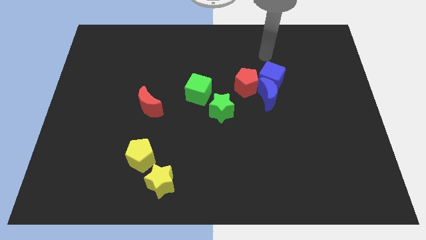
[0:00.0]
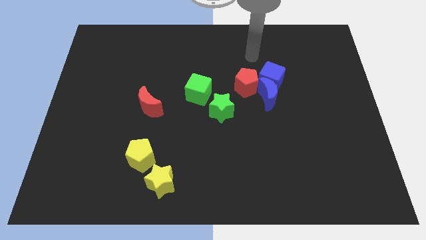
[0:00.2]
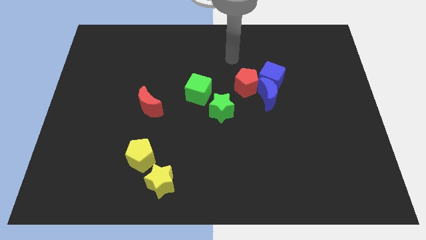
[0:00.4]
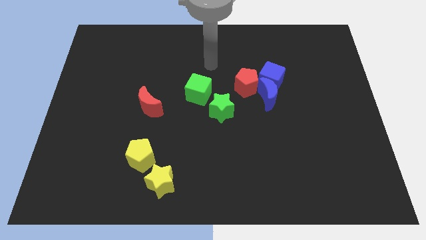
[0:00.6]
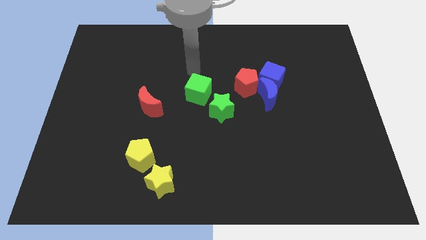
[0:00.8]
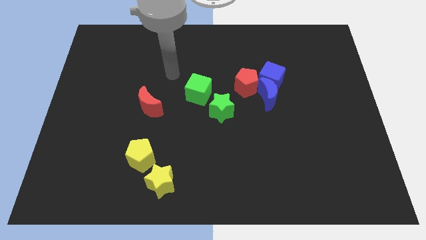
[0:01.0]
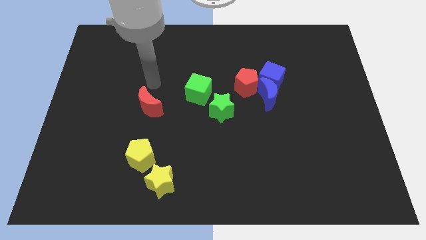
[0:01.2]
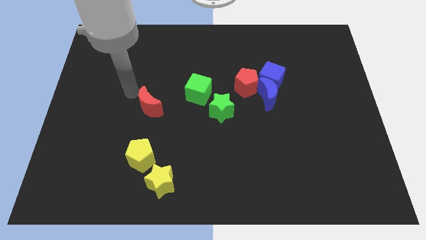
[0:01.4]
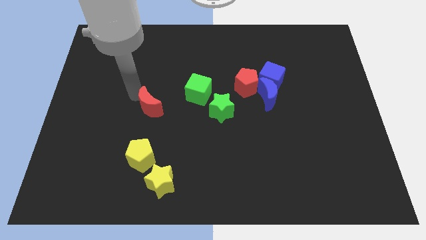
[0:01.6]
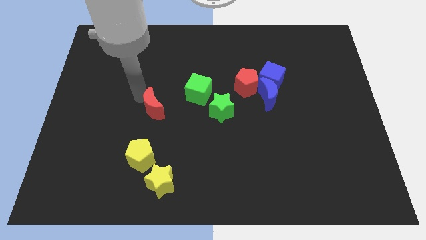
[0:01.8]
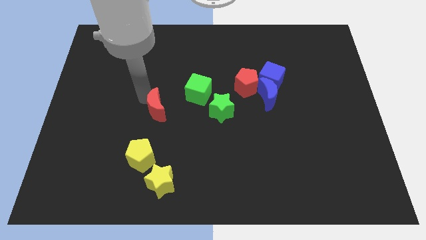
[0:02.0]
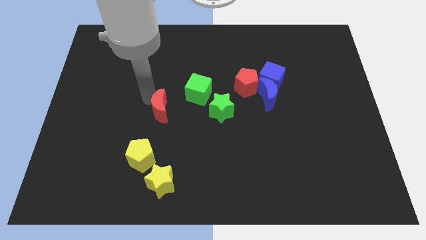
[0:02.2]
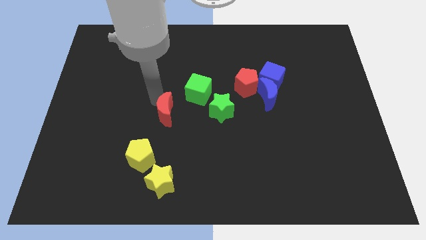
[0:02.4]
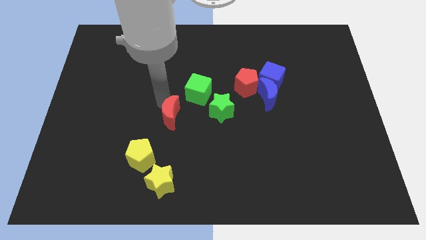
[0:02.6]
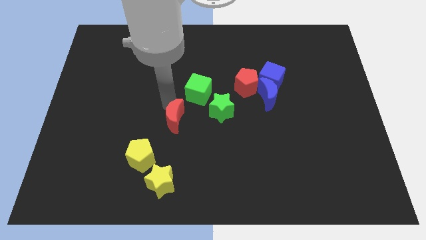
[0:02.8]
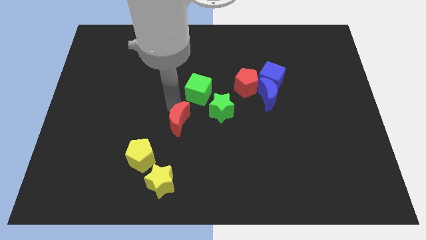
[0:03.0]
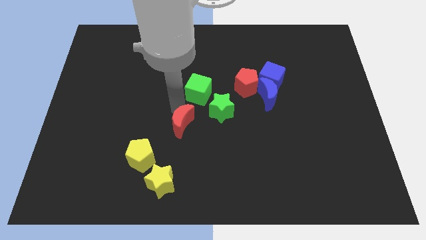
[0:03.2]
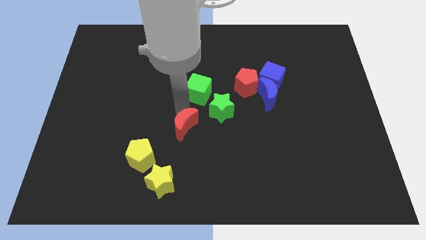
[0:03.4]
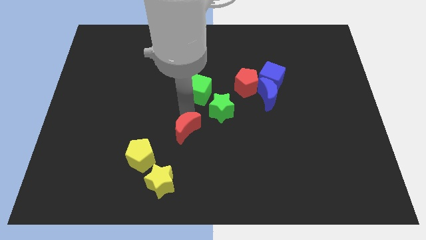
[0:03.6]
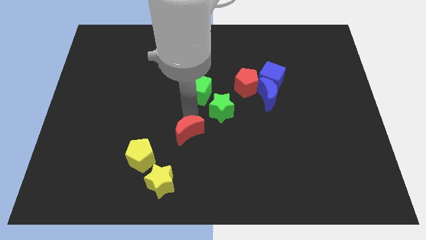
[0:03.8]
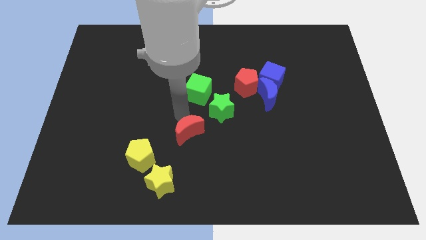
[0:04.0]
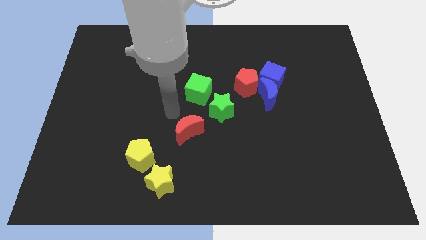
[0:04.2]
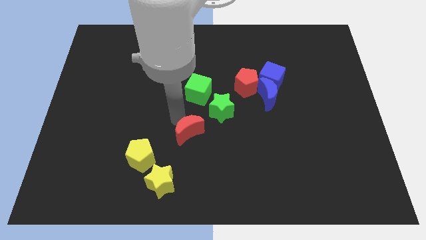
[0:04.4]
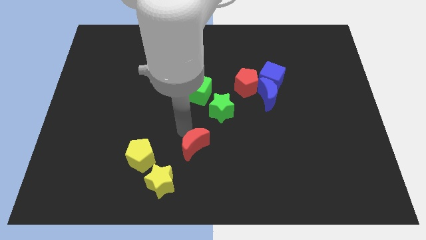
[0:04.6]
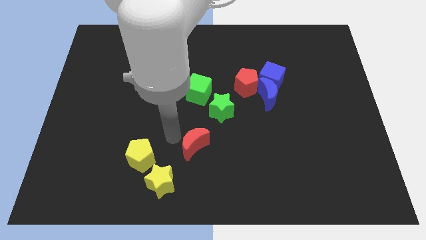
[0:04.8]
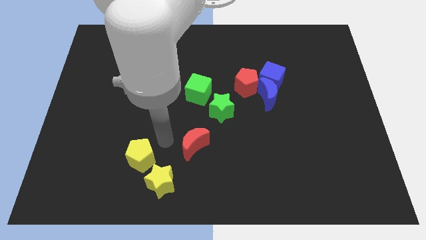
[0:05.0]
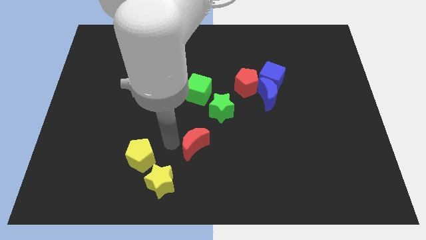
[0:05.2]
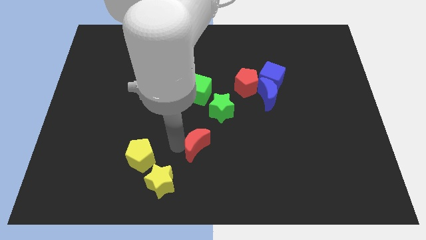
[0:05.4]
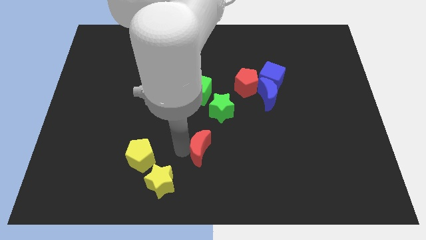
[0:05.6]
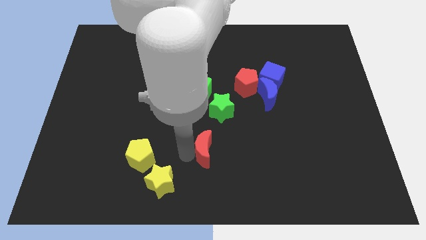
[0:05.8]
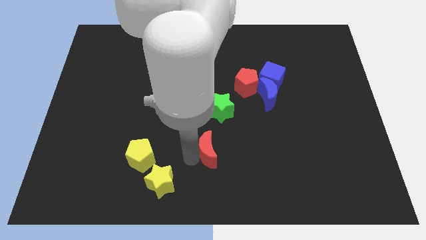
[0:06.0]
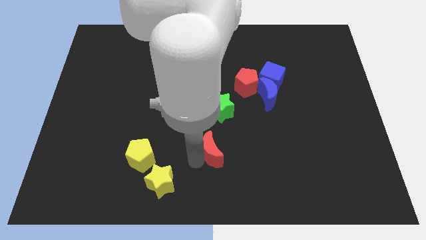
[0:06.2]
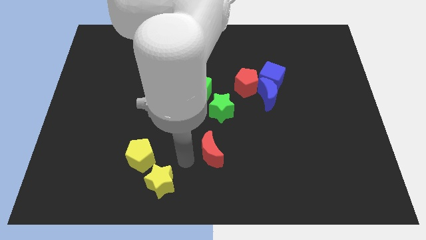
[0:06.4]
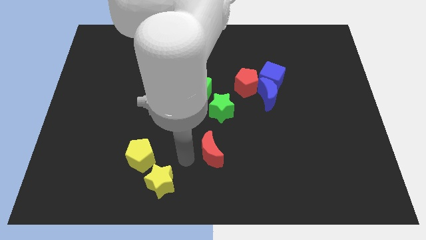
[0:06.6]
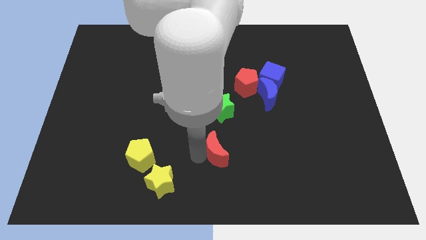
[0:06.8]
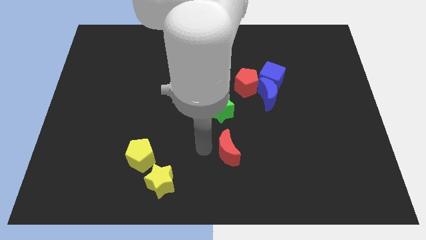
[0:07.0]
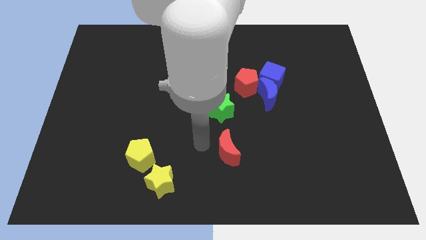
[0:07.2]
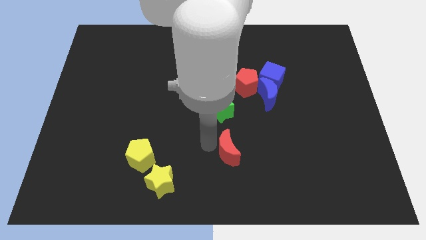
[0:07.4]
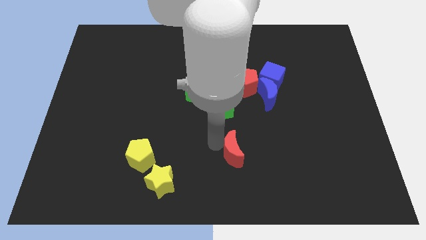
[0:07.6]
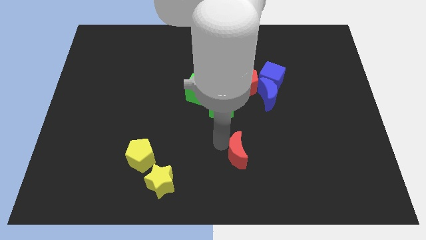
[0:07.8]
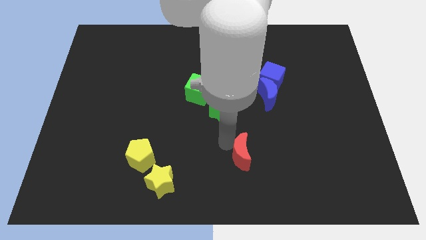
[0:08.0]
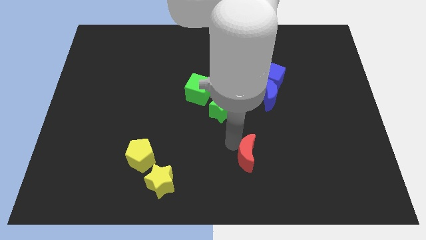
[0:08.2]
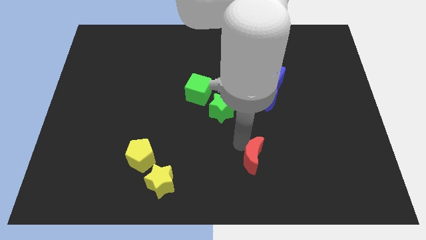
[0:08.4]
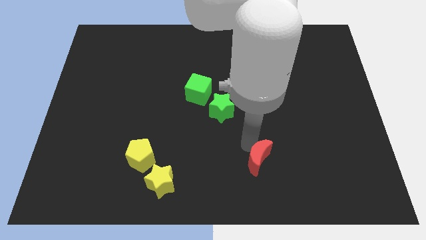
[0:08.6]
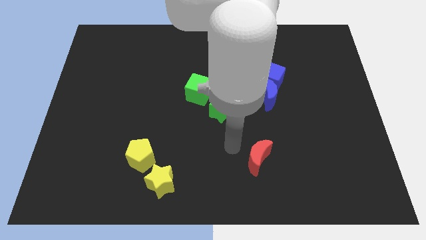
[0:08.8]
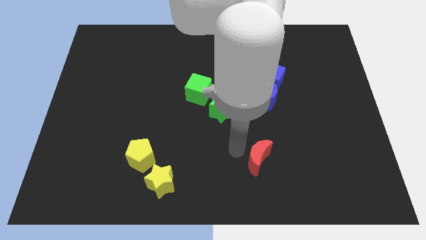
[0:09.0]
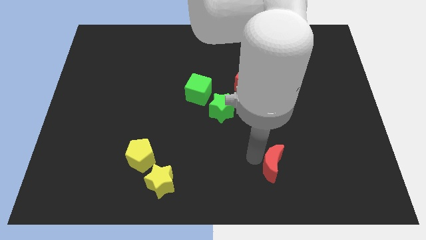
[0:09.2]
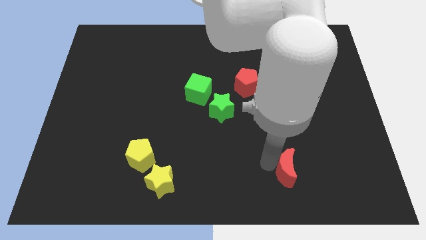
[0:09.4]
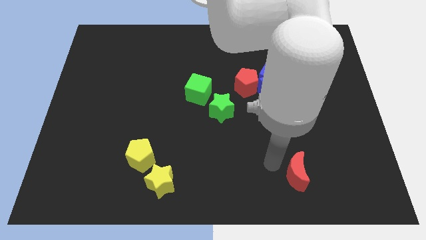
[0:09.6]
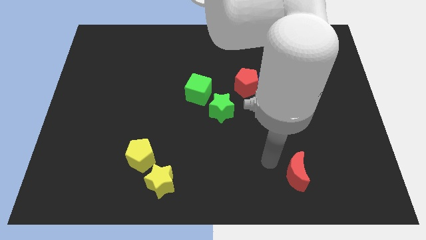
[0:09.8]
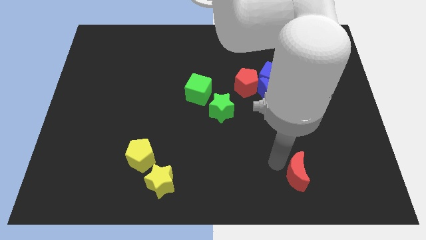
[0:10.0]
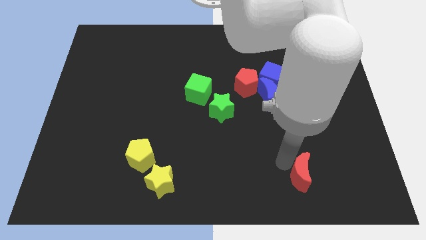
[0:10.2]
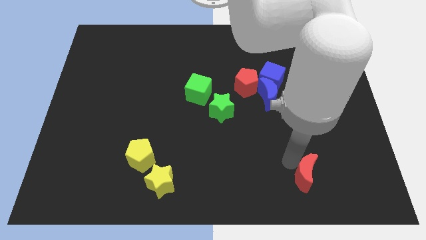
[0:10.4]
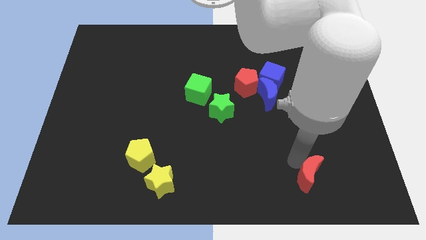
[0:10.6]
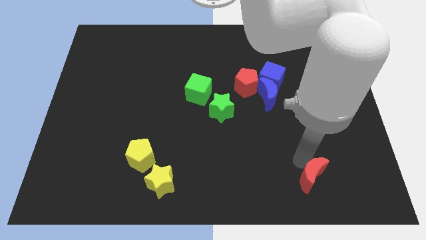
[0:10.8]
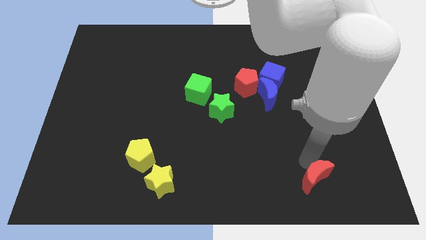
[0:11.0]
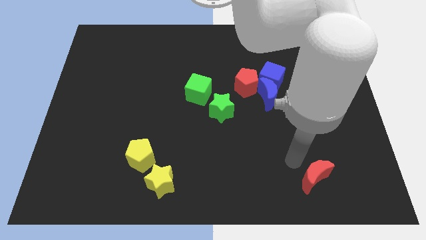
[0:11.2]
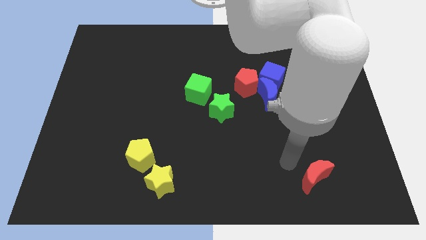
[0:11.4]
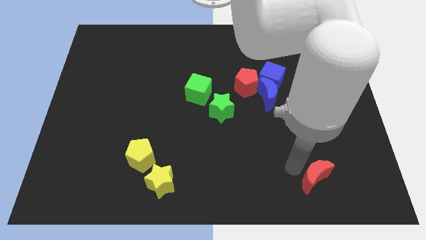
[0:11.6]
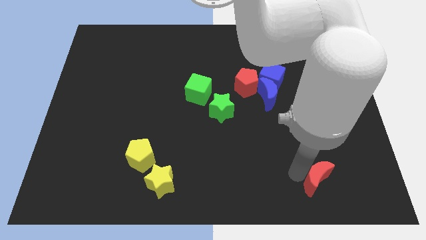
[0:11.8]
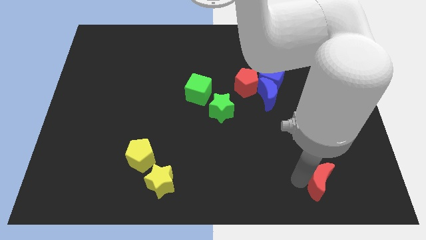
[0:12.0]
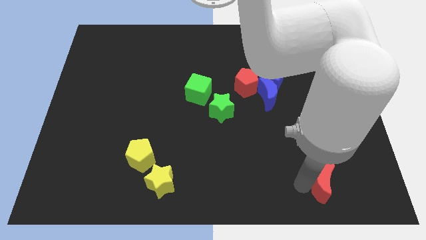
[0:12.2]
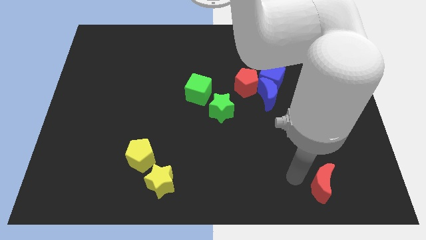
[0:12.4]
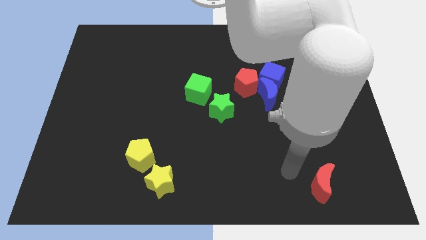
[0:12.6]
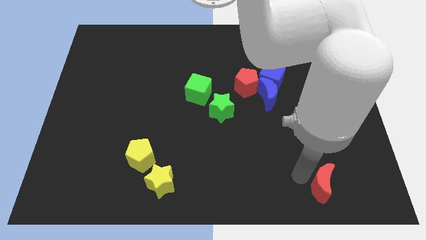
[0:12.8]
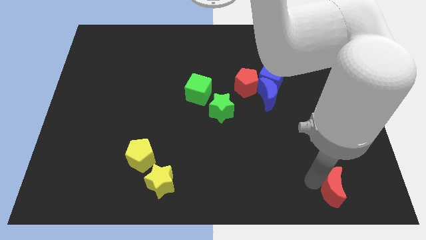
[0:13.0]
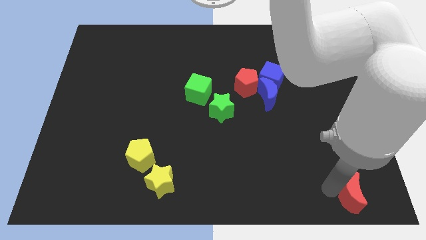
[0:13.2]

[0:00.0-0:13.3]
put the red moon to the bottom right of the board
